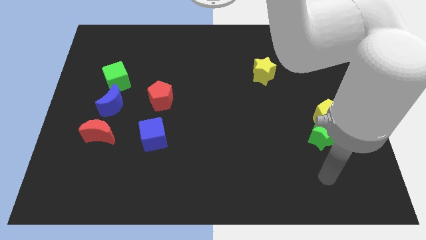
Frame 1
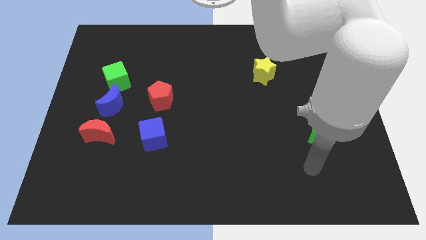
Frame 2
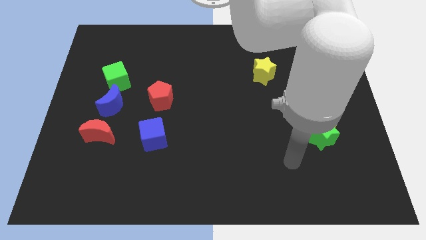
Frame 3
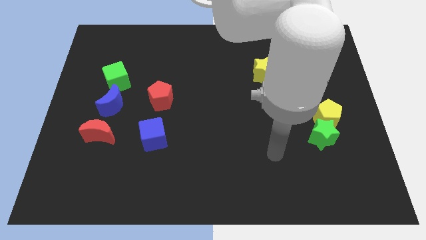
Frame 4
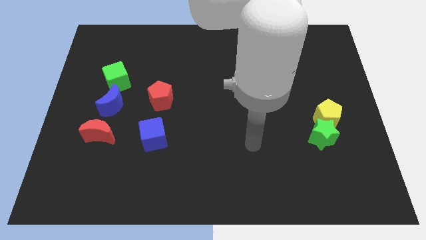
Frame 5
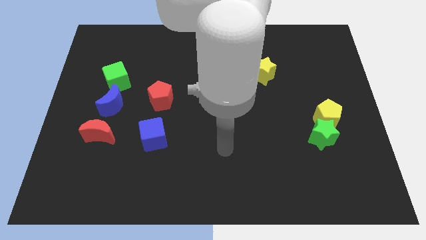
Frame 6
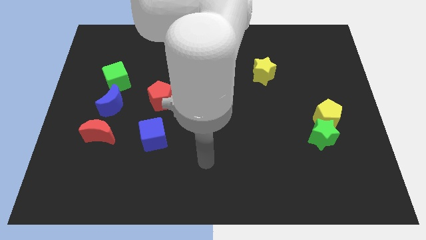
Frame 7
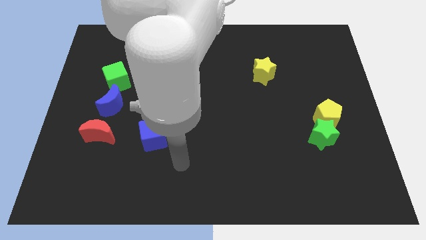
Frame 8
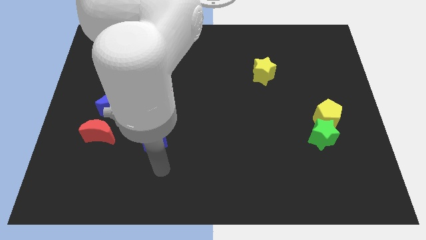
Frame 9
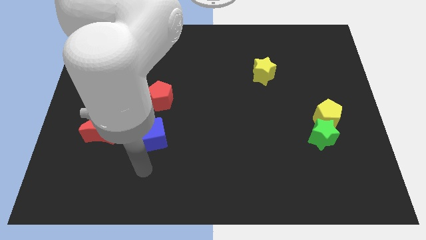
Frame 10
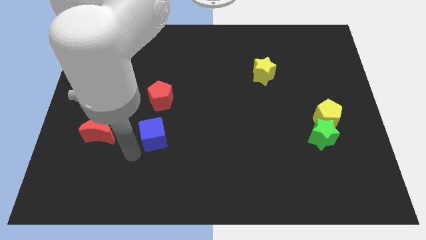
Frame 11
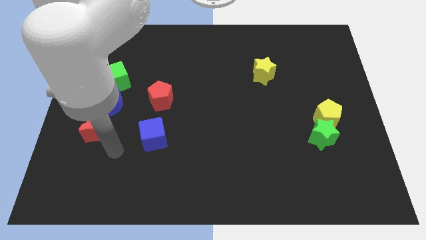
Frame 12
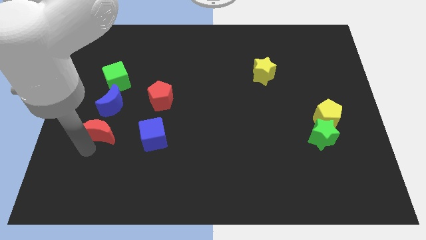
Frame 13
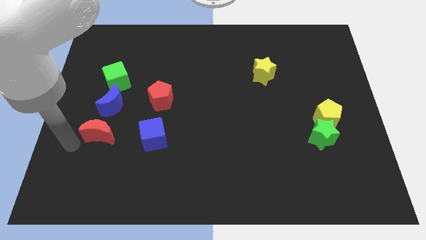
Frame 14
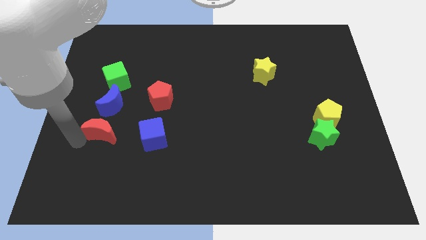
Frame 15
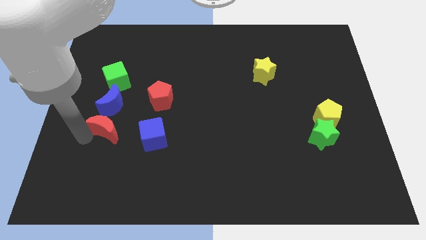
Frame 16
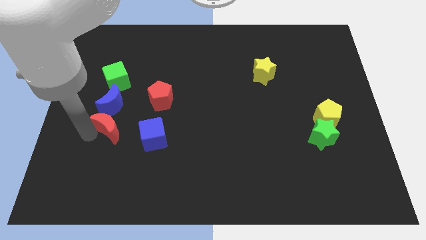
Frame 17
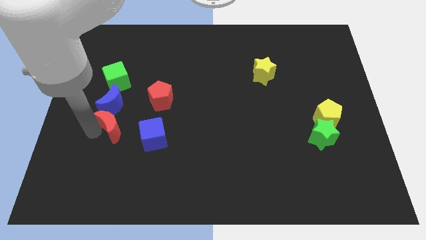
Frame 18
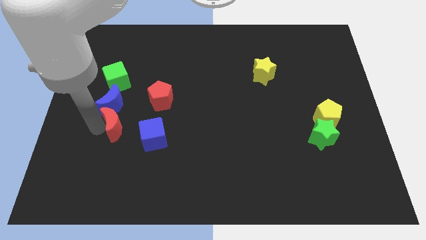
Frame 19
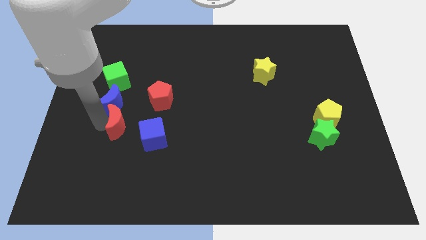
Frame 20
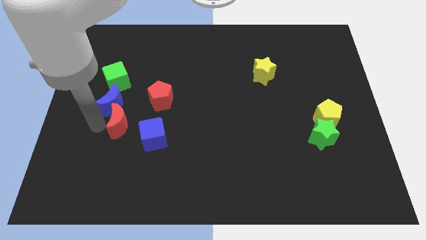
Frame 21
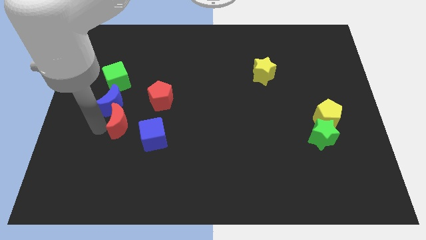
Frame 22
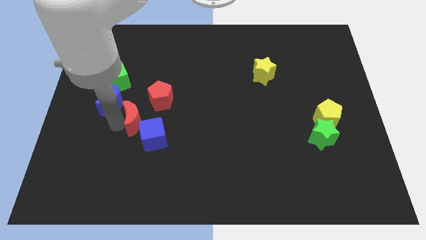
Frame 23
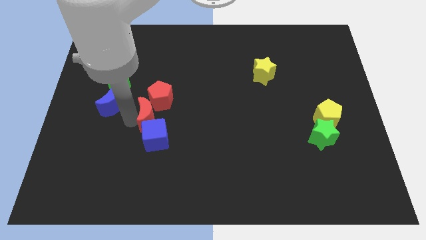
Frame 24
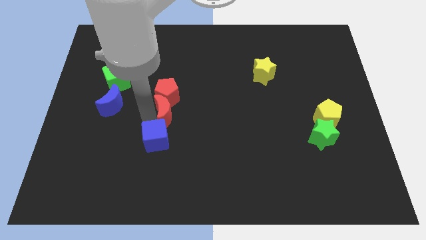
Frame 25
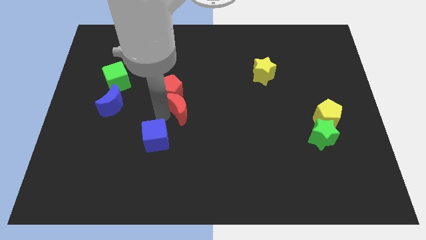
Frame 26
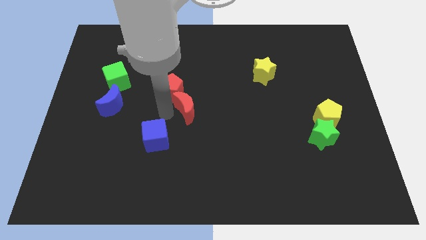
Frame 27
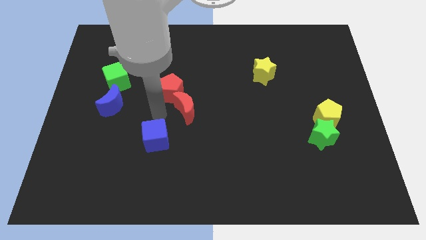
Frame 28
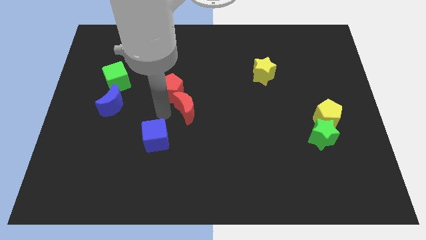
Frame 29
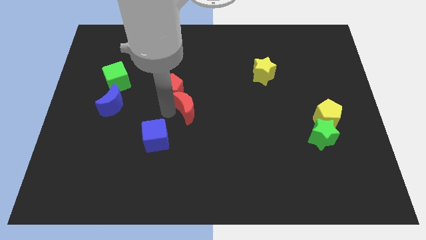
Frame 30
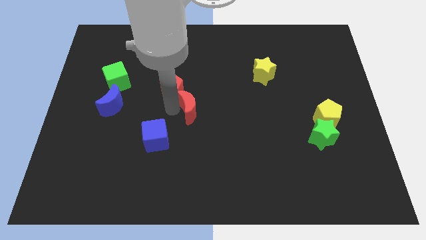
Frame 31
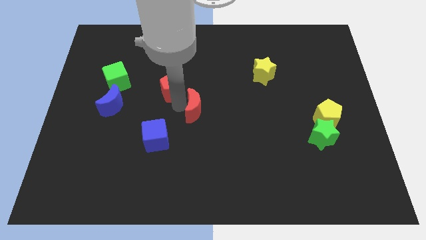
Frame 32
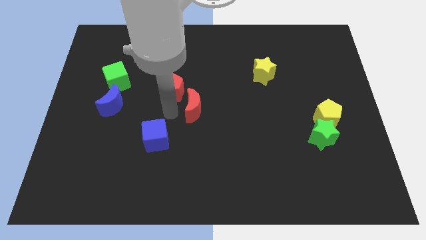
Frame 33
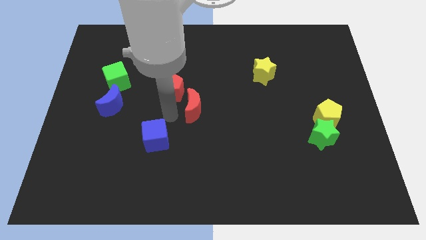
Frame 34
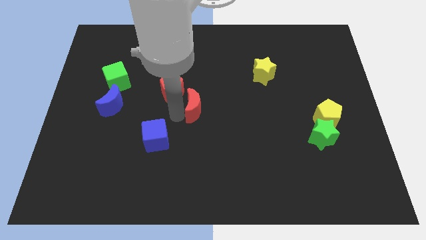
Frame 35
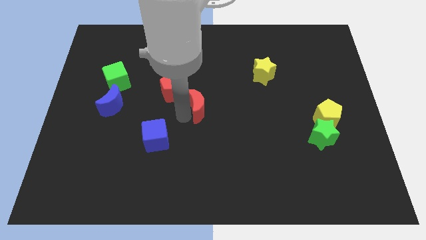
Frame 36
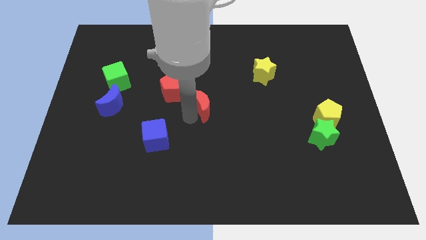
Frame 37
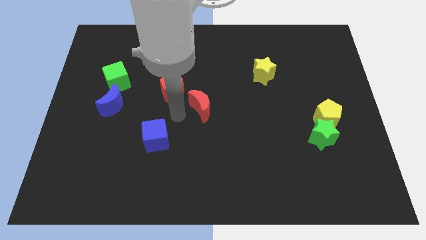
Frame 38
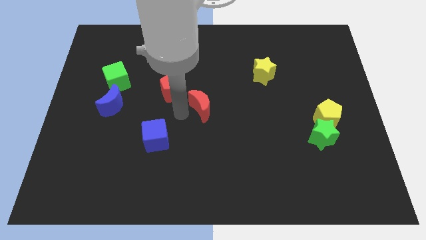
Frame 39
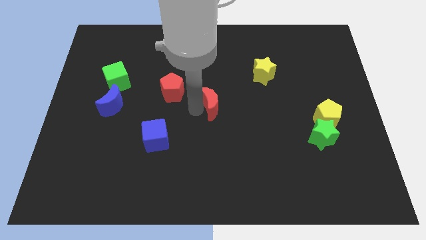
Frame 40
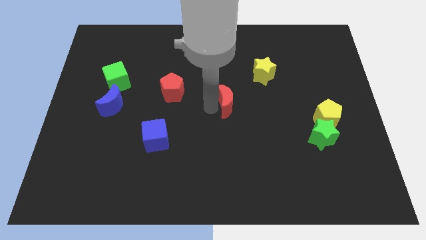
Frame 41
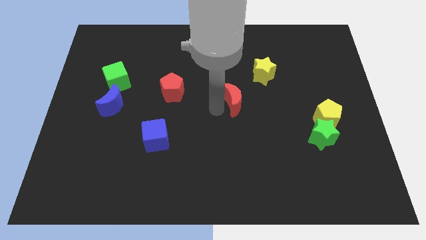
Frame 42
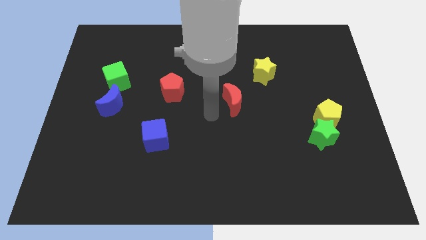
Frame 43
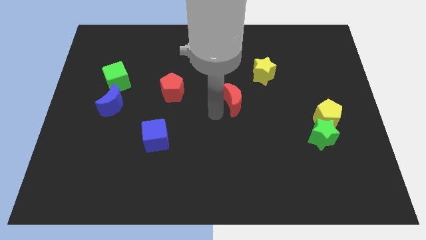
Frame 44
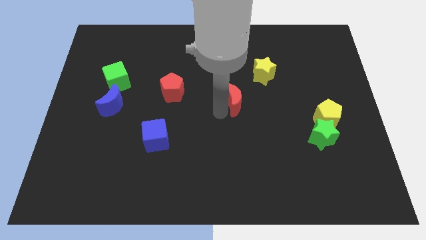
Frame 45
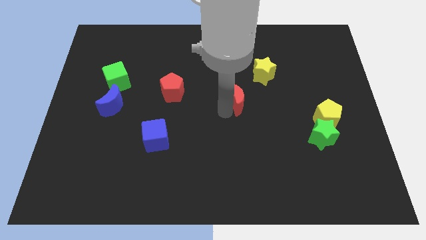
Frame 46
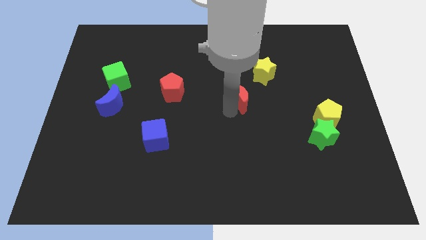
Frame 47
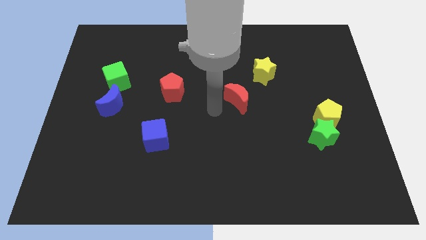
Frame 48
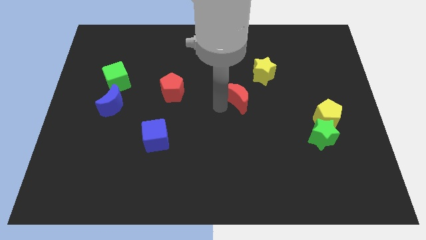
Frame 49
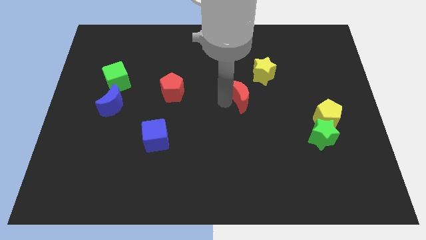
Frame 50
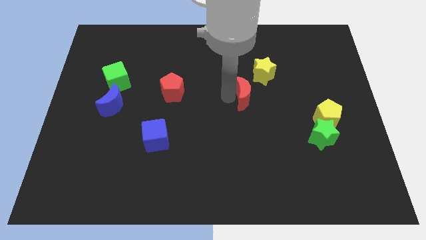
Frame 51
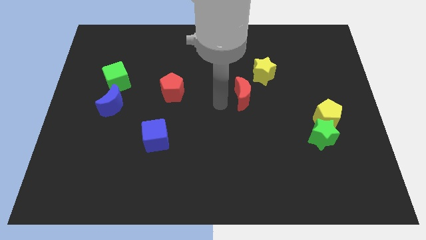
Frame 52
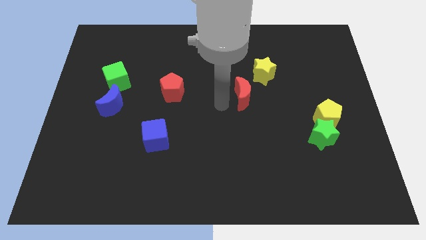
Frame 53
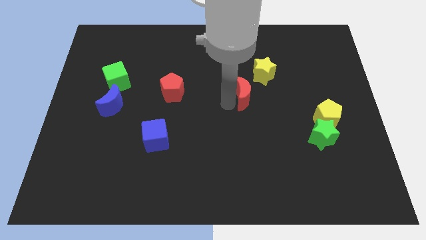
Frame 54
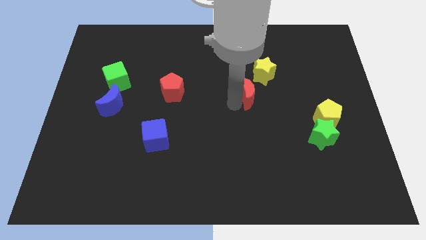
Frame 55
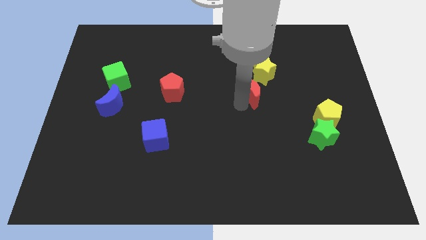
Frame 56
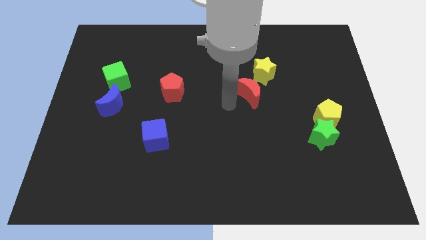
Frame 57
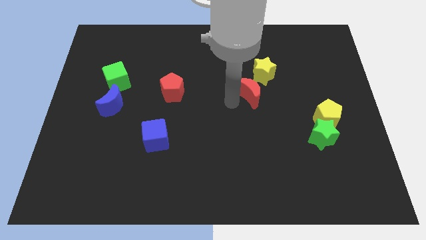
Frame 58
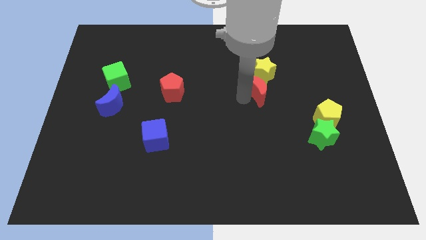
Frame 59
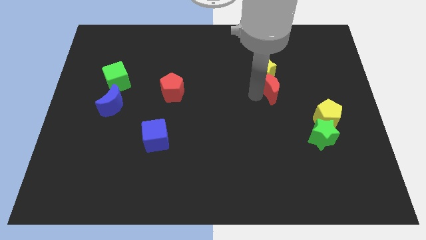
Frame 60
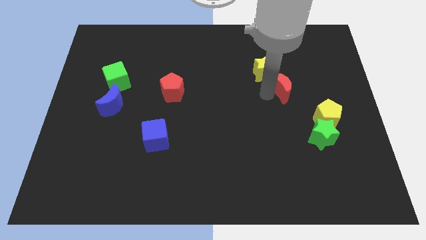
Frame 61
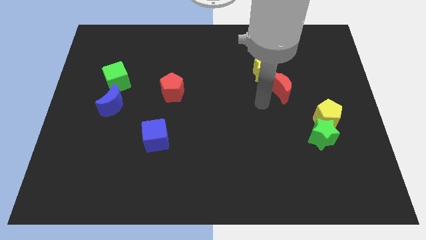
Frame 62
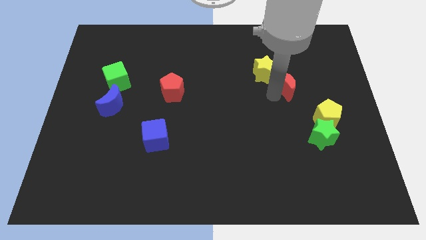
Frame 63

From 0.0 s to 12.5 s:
push the red moon to the right of the yellow star

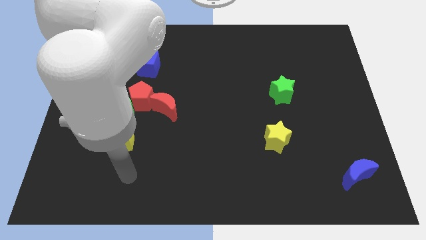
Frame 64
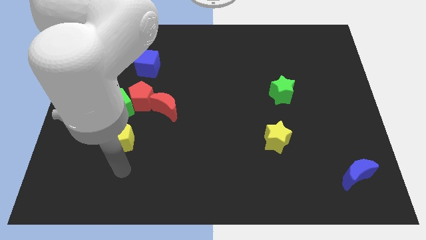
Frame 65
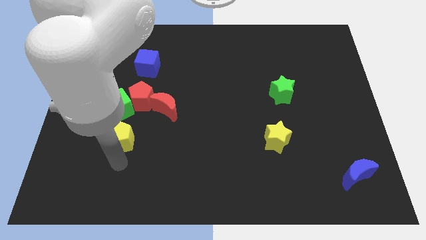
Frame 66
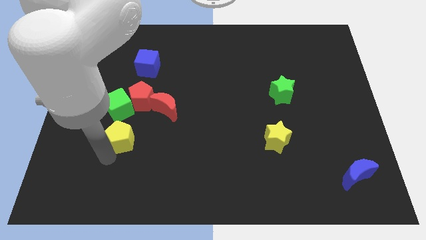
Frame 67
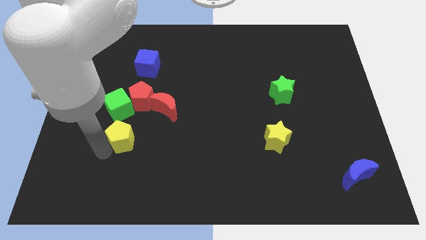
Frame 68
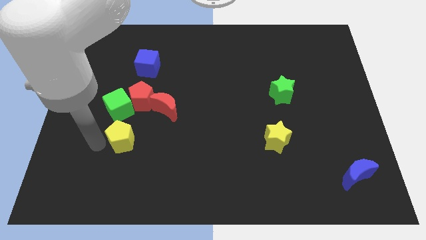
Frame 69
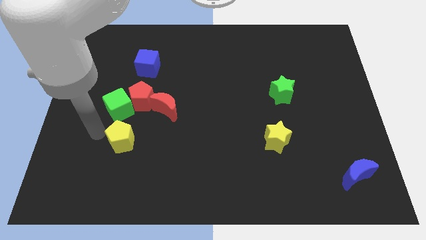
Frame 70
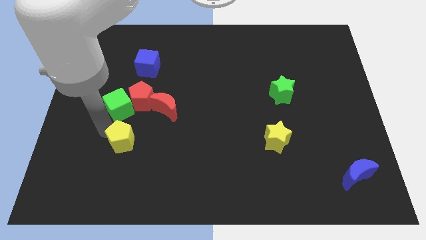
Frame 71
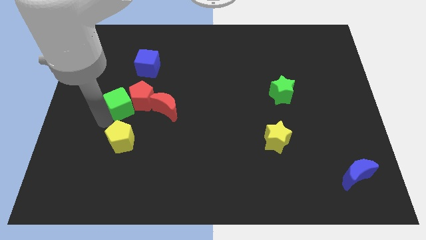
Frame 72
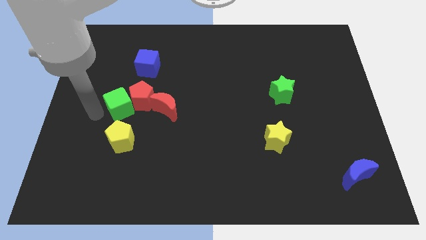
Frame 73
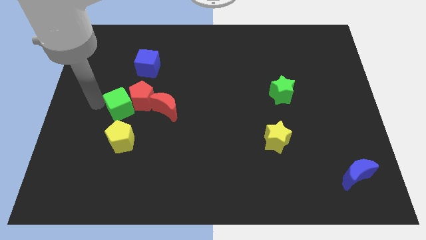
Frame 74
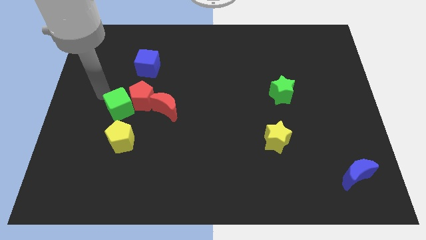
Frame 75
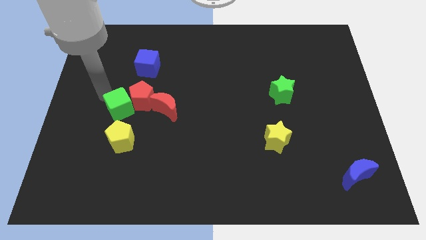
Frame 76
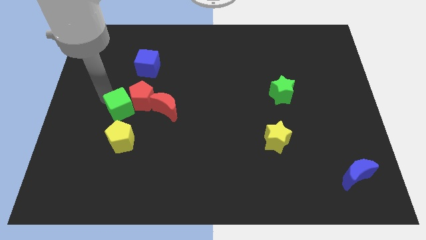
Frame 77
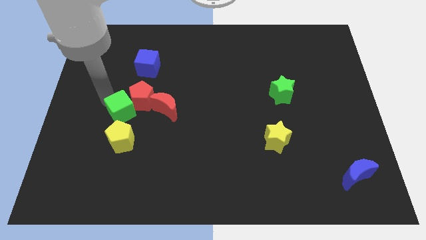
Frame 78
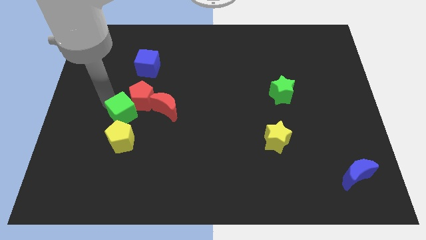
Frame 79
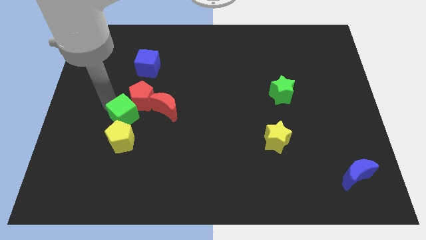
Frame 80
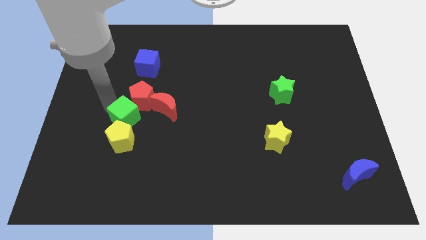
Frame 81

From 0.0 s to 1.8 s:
slide the green cube diagonally down and to the left of the red moon
